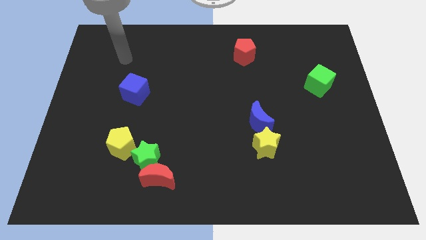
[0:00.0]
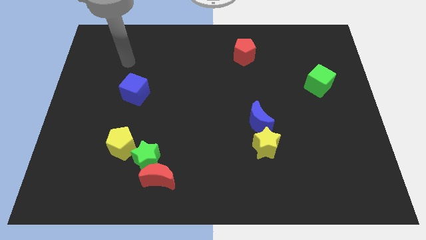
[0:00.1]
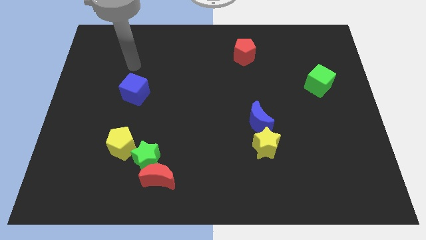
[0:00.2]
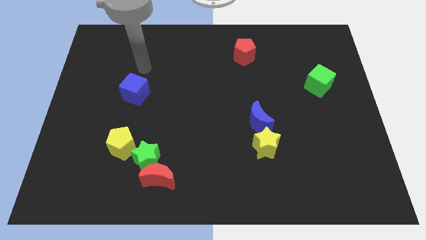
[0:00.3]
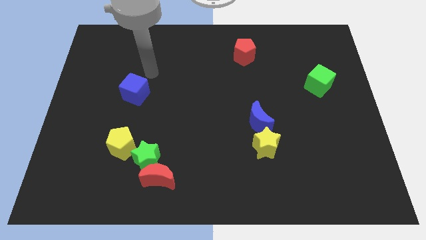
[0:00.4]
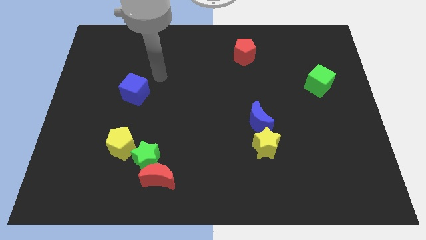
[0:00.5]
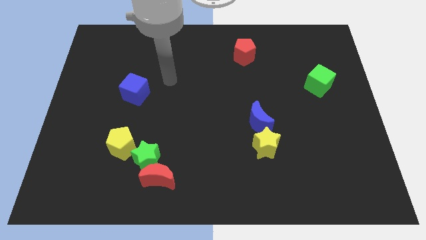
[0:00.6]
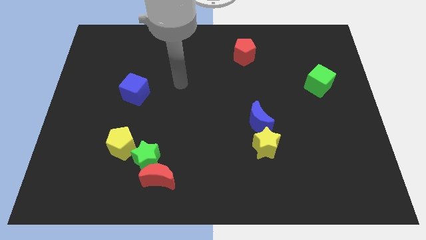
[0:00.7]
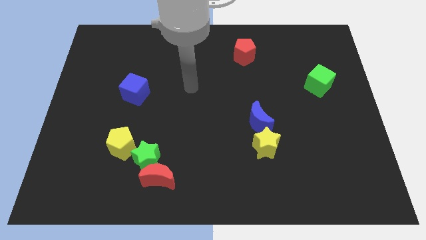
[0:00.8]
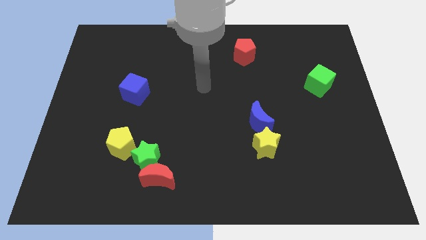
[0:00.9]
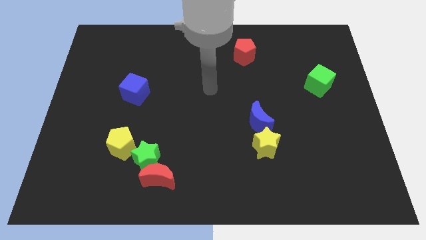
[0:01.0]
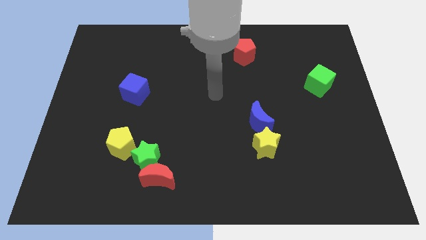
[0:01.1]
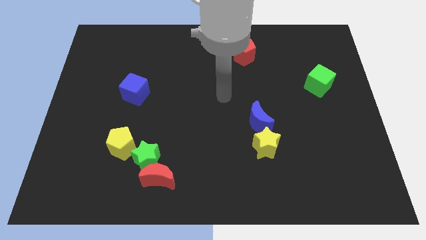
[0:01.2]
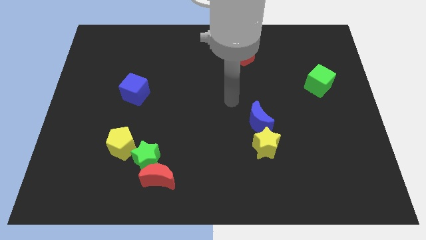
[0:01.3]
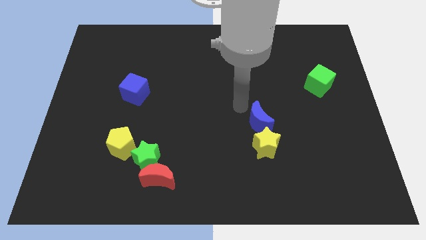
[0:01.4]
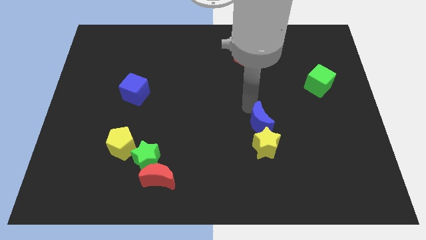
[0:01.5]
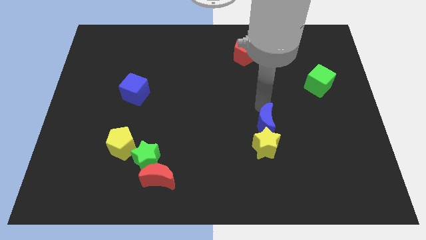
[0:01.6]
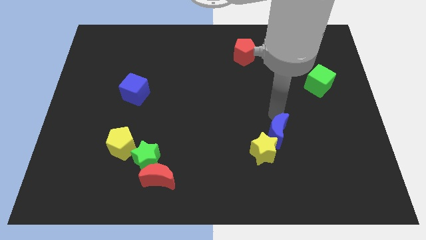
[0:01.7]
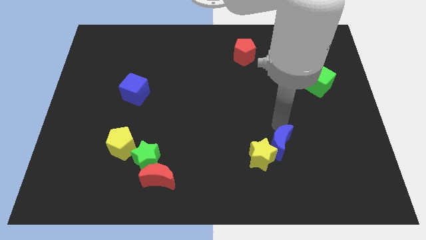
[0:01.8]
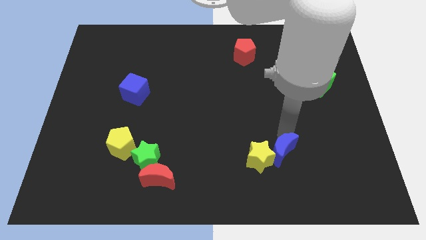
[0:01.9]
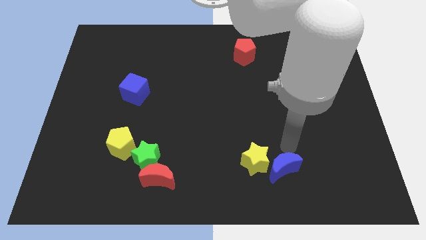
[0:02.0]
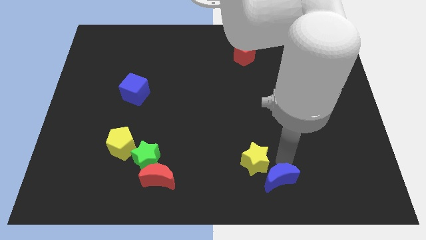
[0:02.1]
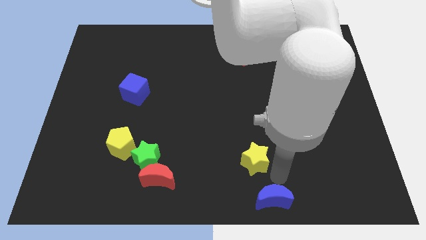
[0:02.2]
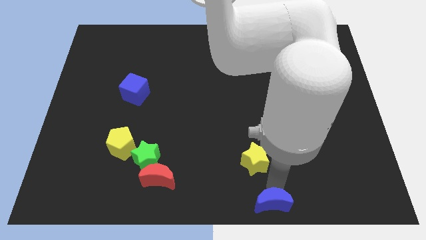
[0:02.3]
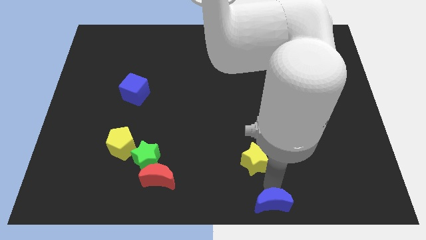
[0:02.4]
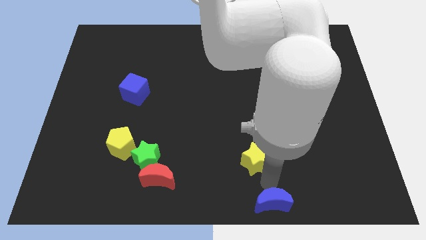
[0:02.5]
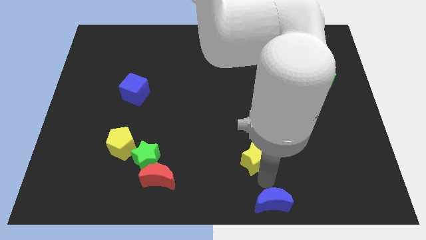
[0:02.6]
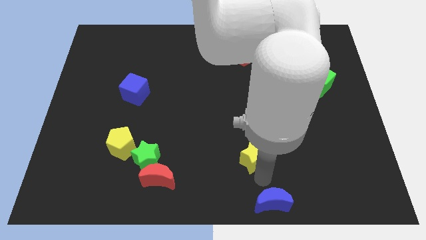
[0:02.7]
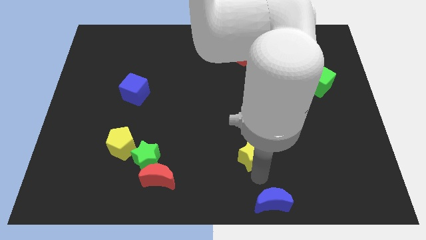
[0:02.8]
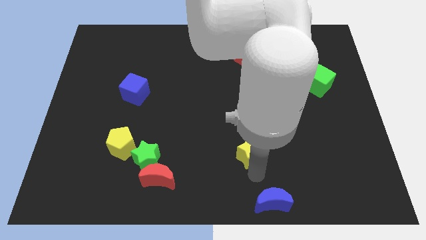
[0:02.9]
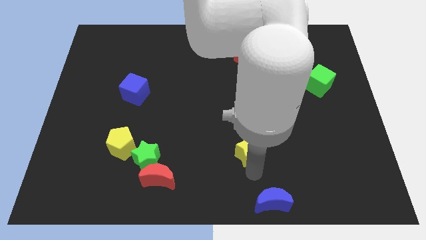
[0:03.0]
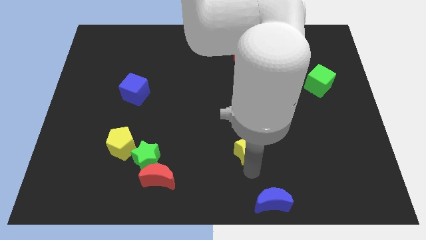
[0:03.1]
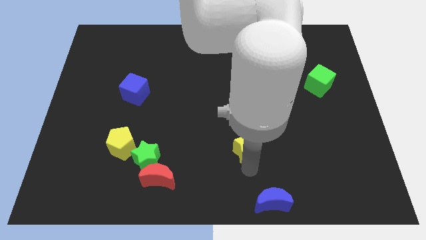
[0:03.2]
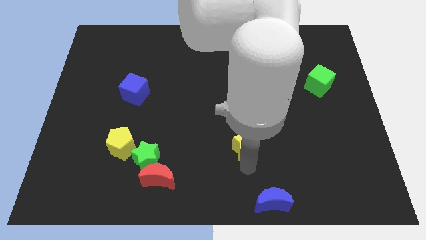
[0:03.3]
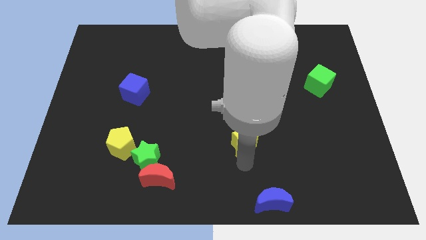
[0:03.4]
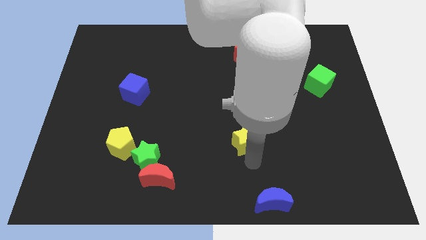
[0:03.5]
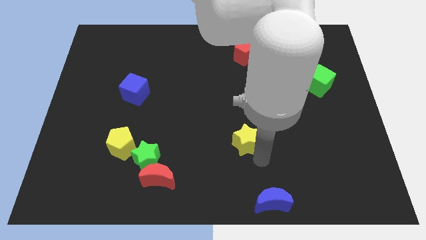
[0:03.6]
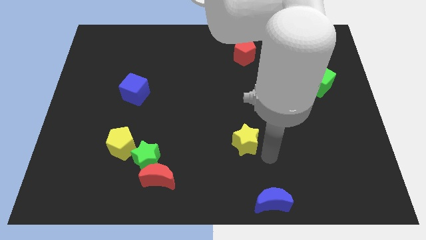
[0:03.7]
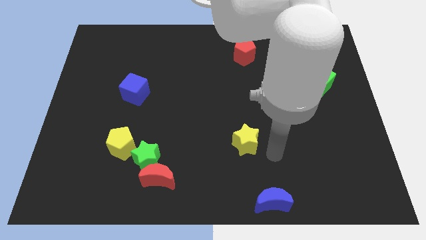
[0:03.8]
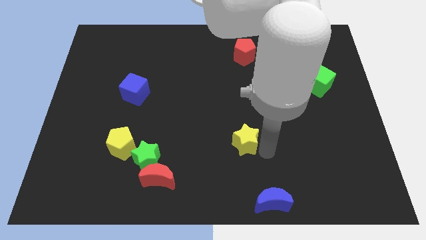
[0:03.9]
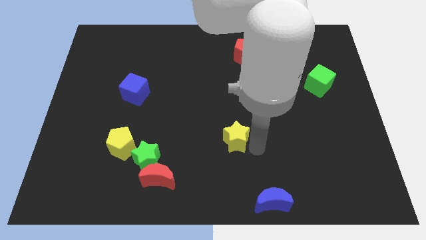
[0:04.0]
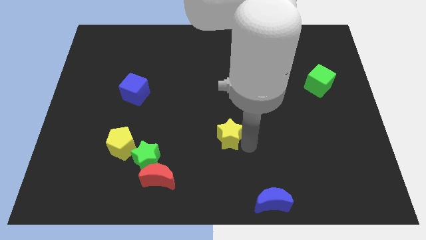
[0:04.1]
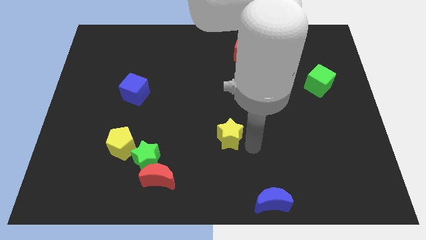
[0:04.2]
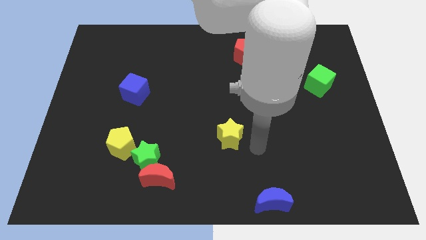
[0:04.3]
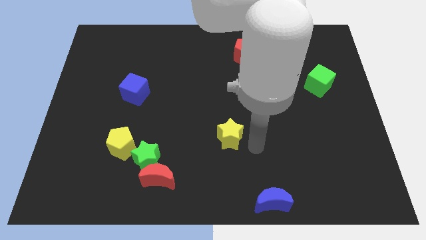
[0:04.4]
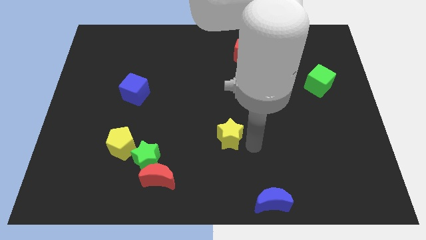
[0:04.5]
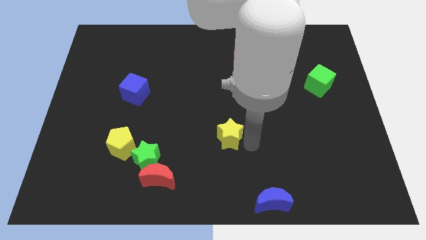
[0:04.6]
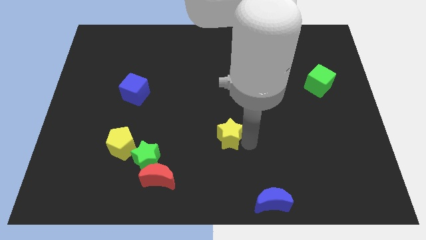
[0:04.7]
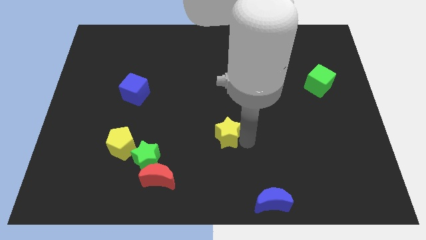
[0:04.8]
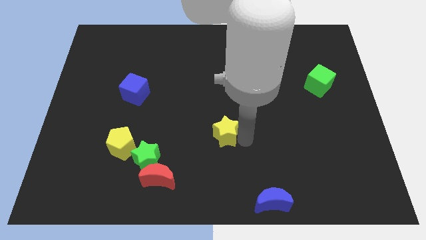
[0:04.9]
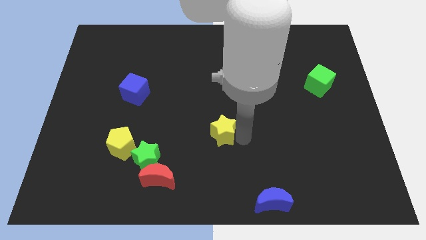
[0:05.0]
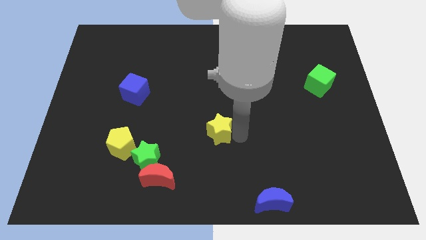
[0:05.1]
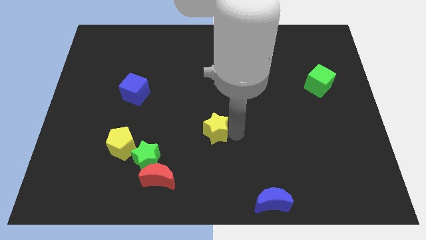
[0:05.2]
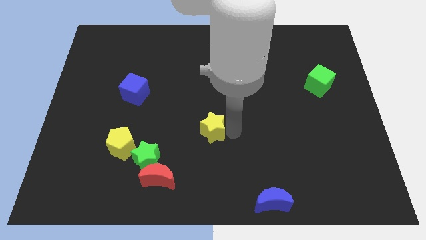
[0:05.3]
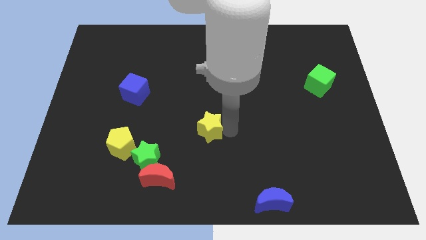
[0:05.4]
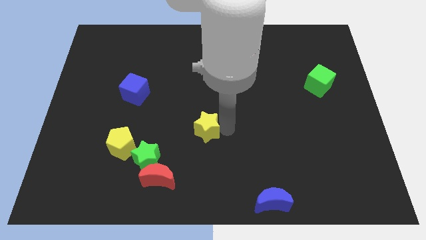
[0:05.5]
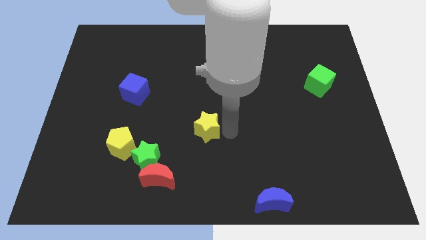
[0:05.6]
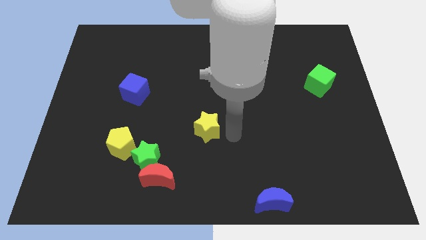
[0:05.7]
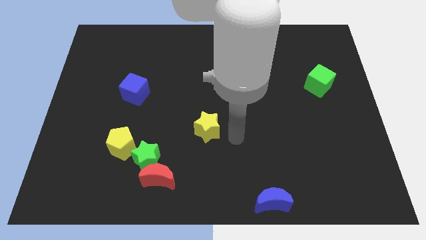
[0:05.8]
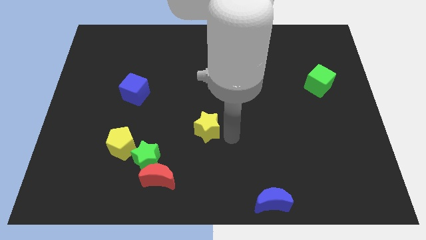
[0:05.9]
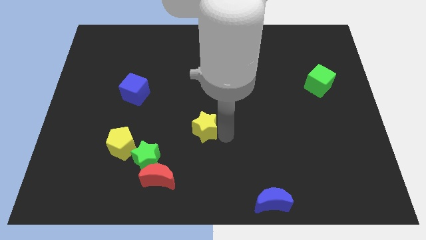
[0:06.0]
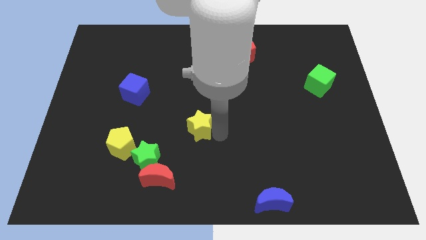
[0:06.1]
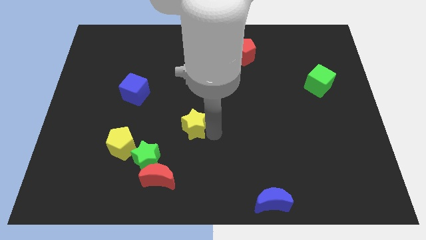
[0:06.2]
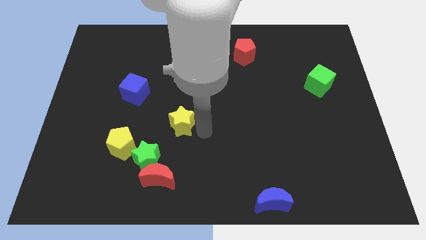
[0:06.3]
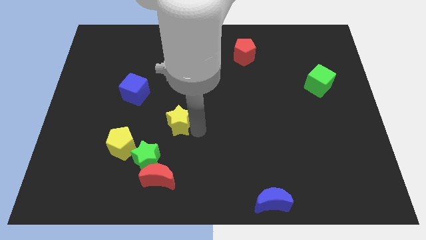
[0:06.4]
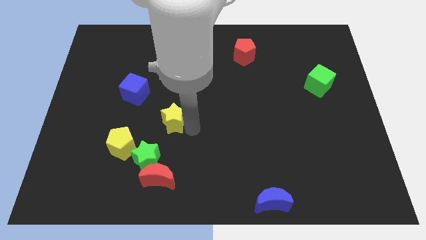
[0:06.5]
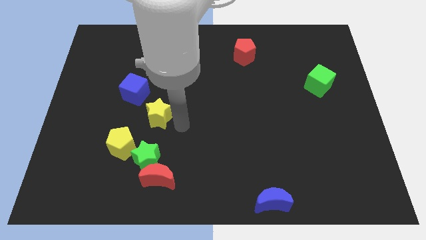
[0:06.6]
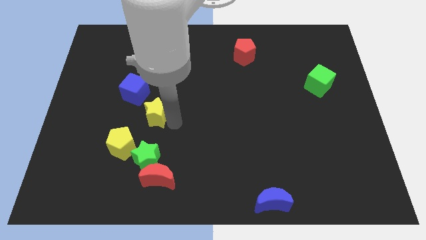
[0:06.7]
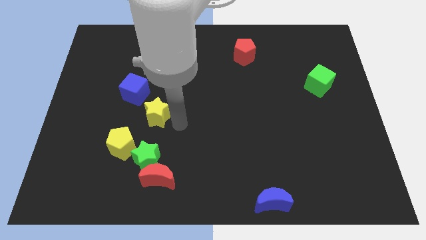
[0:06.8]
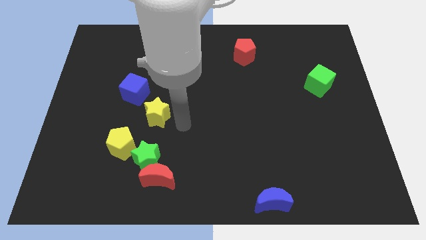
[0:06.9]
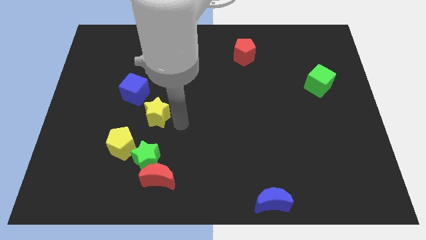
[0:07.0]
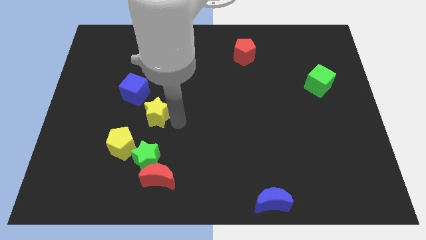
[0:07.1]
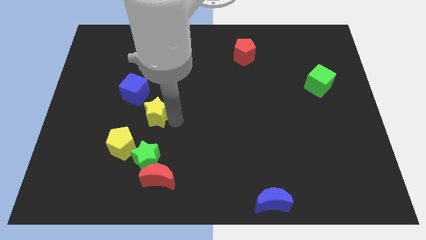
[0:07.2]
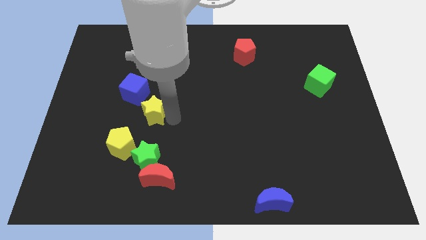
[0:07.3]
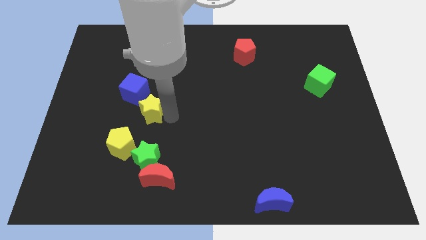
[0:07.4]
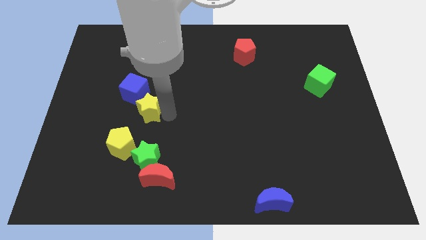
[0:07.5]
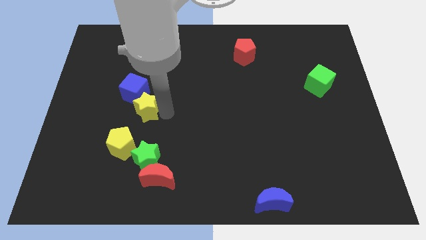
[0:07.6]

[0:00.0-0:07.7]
put the yellow star to the top of the yellow pentagon

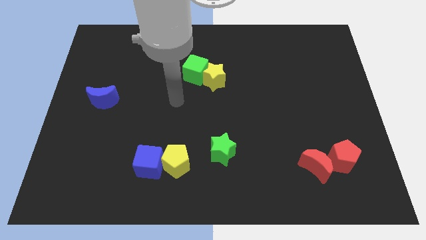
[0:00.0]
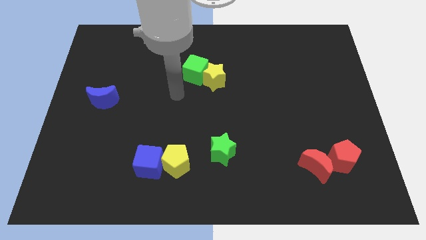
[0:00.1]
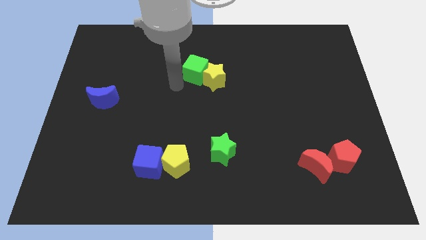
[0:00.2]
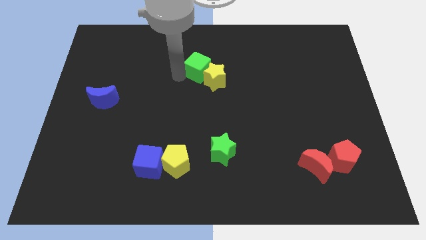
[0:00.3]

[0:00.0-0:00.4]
move the yellow star below the green cube
